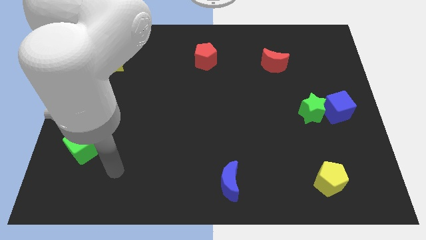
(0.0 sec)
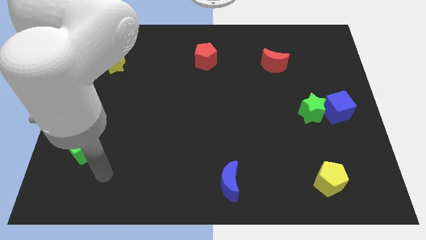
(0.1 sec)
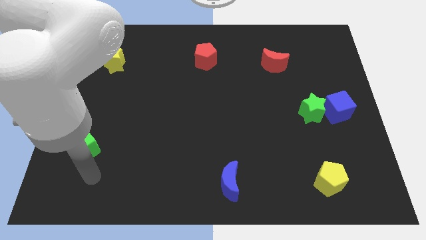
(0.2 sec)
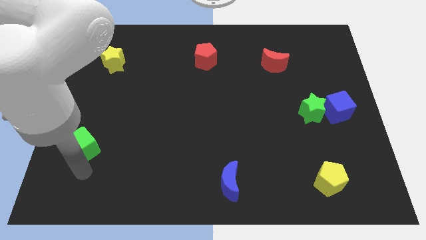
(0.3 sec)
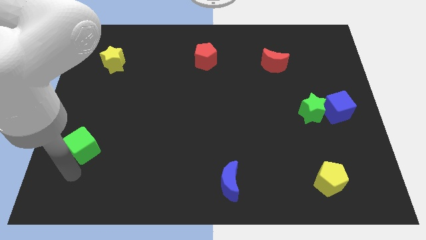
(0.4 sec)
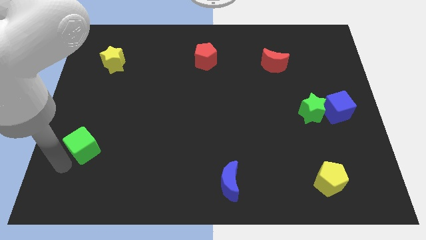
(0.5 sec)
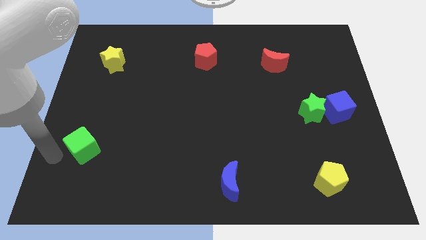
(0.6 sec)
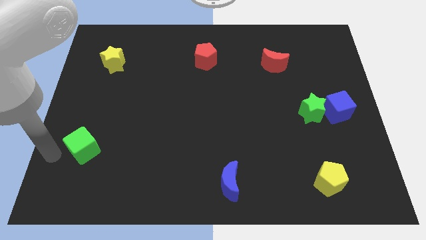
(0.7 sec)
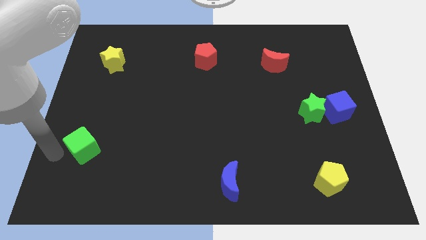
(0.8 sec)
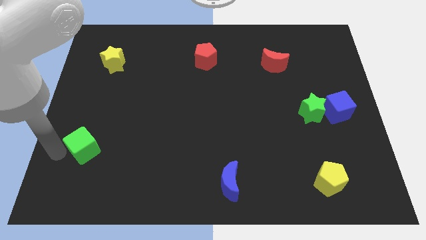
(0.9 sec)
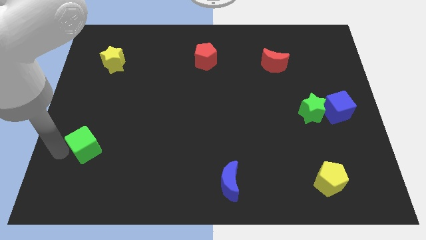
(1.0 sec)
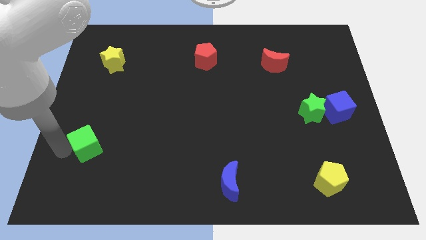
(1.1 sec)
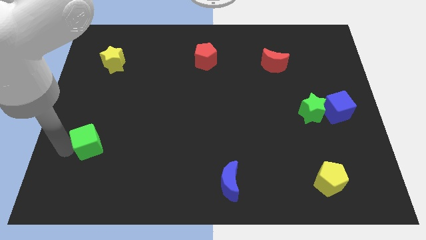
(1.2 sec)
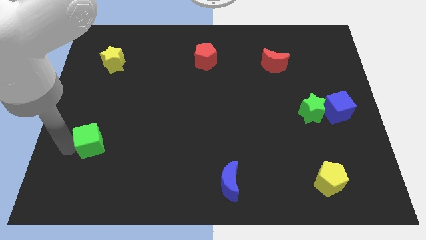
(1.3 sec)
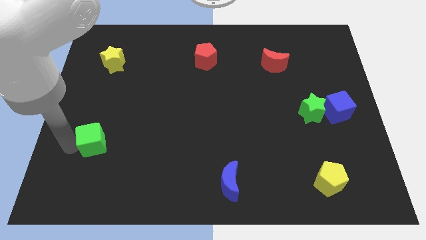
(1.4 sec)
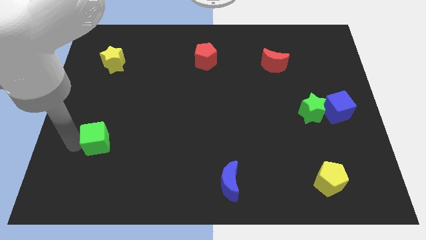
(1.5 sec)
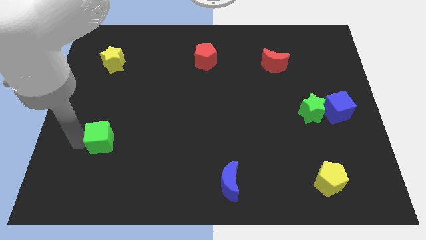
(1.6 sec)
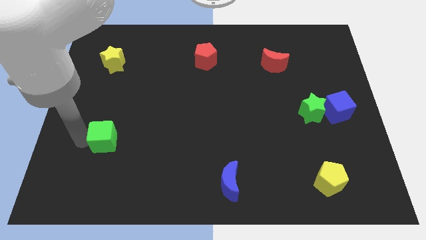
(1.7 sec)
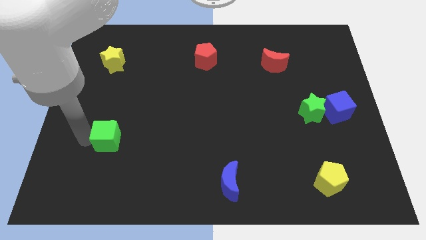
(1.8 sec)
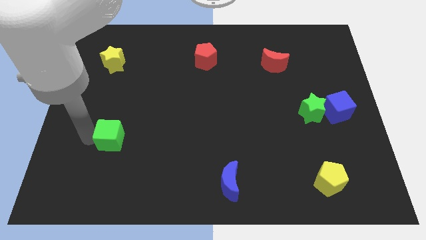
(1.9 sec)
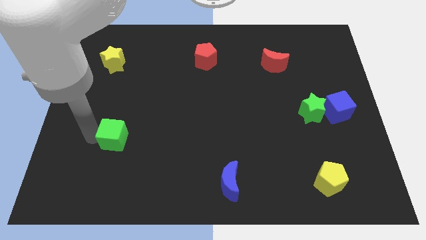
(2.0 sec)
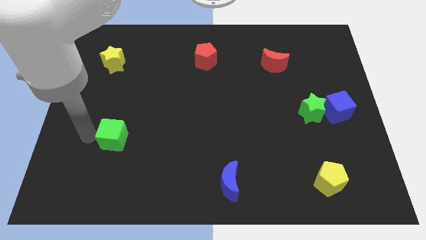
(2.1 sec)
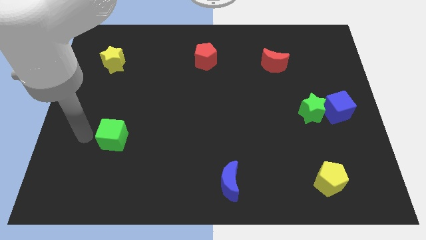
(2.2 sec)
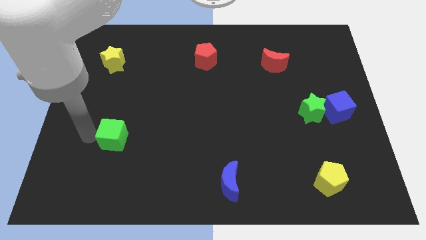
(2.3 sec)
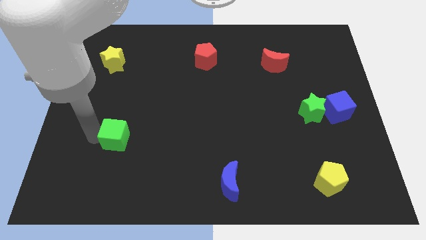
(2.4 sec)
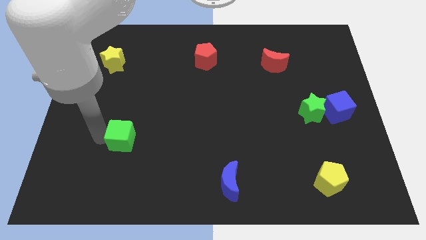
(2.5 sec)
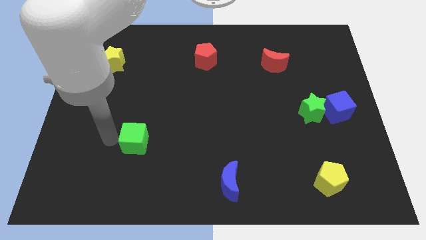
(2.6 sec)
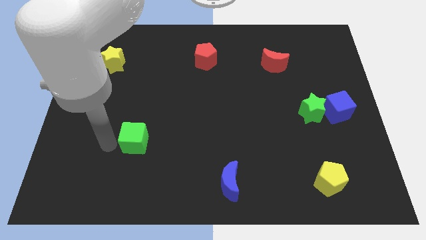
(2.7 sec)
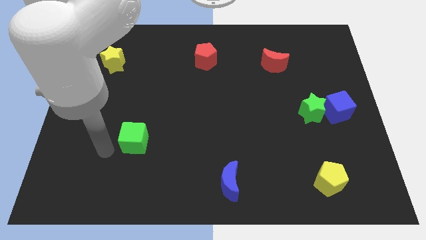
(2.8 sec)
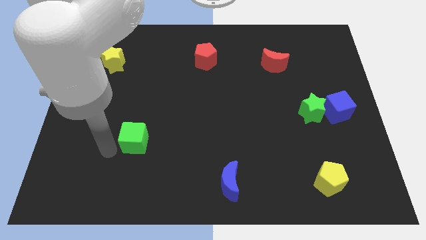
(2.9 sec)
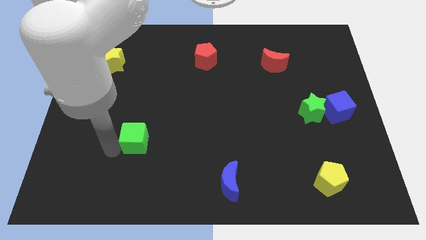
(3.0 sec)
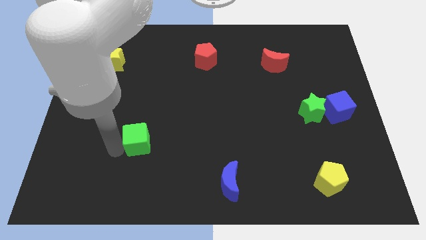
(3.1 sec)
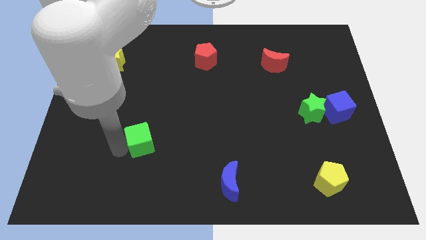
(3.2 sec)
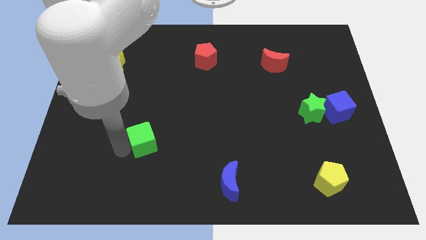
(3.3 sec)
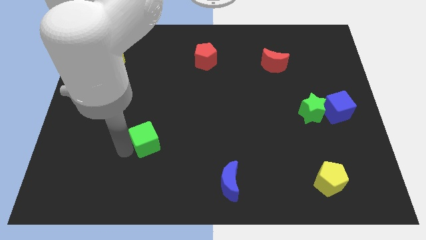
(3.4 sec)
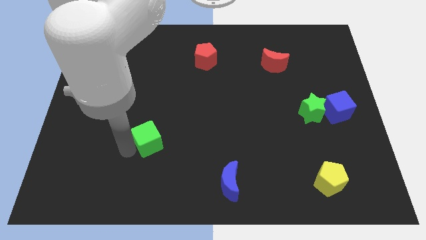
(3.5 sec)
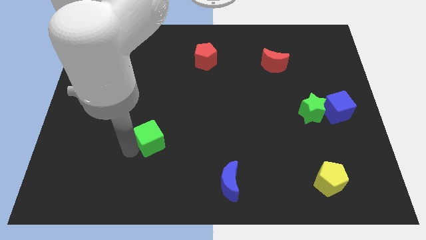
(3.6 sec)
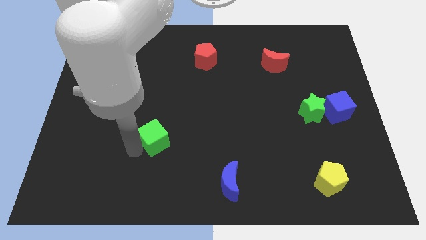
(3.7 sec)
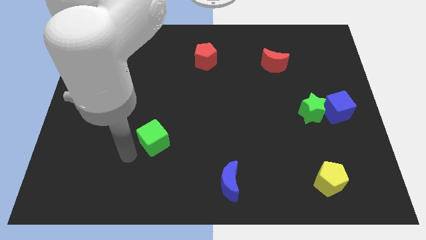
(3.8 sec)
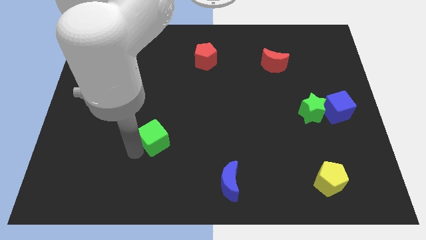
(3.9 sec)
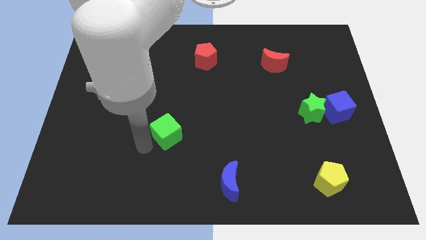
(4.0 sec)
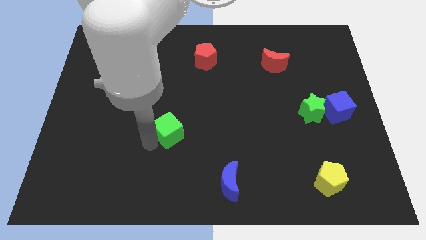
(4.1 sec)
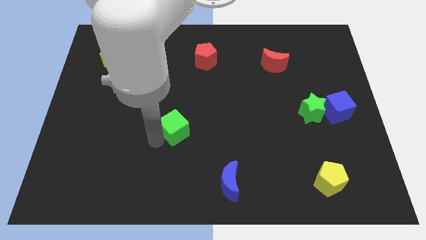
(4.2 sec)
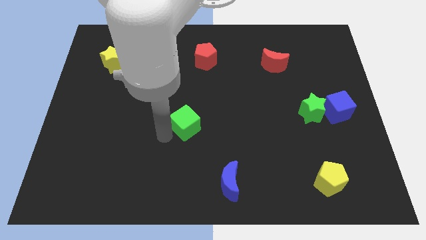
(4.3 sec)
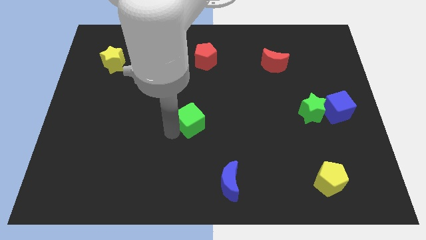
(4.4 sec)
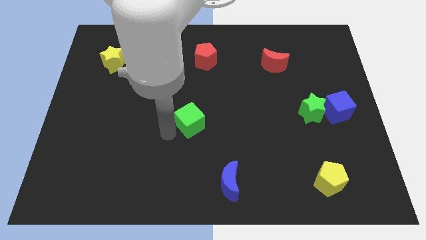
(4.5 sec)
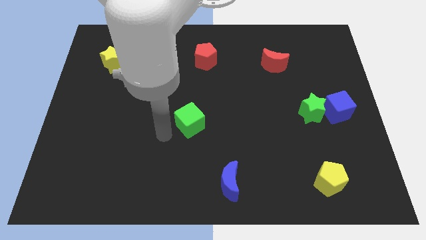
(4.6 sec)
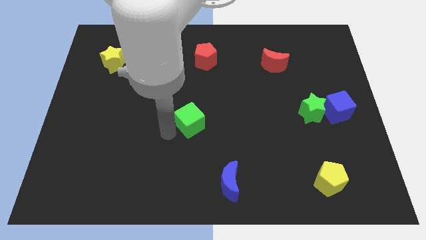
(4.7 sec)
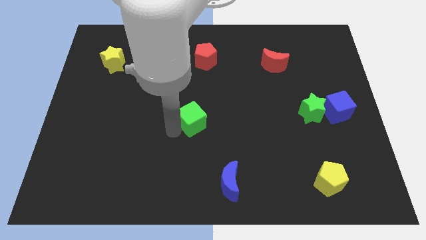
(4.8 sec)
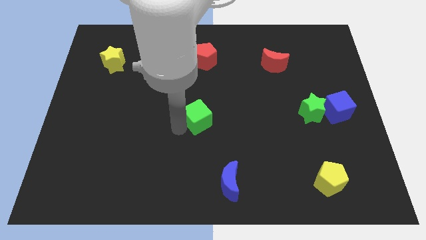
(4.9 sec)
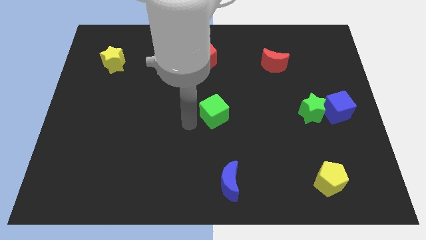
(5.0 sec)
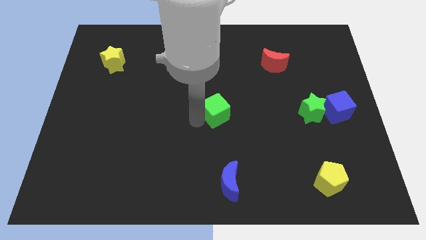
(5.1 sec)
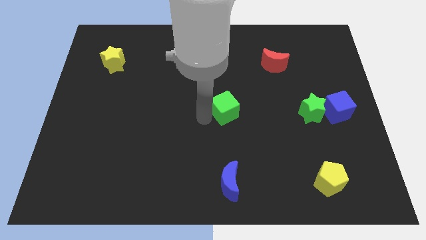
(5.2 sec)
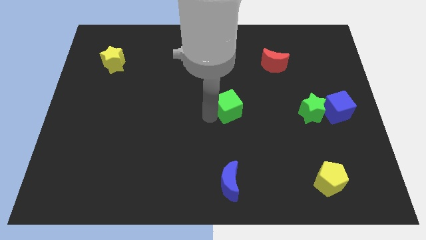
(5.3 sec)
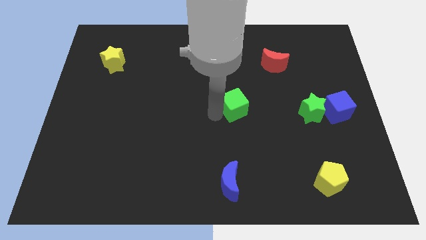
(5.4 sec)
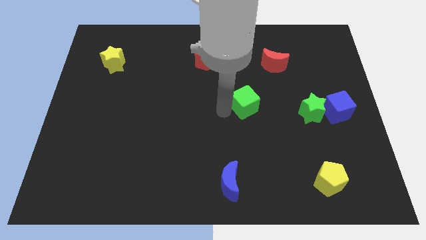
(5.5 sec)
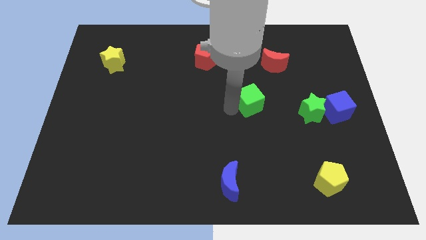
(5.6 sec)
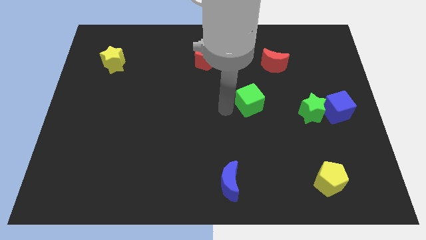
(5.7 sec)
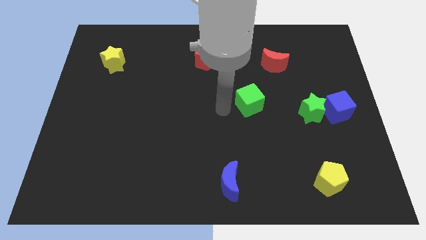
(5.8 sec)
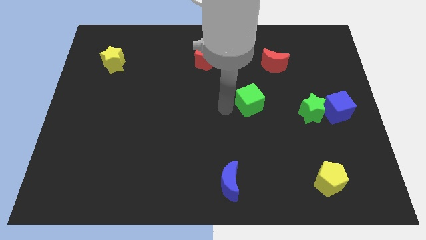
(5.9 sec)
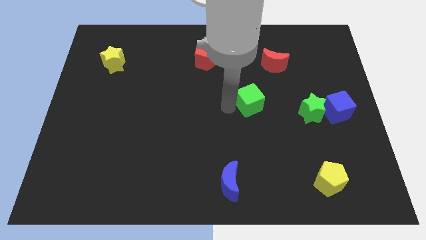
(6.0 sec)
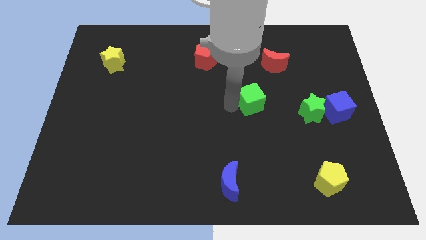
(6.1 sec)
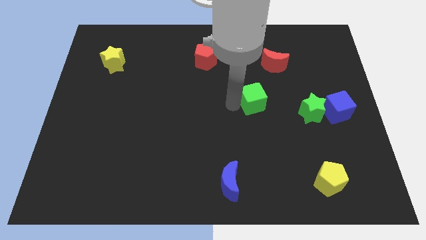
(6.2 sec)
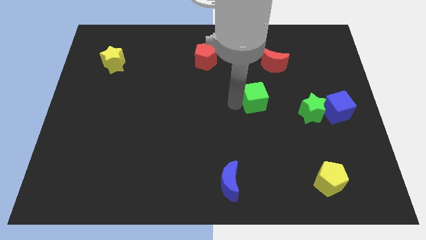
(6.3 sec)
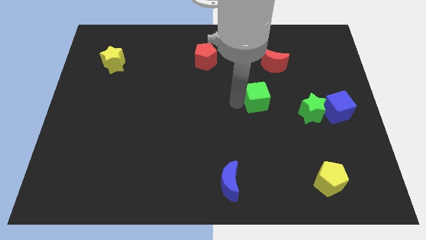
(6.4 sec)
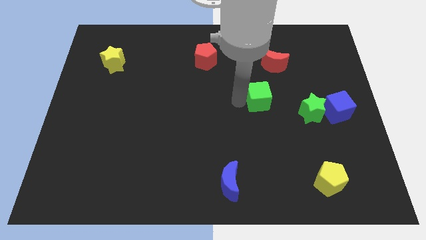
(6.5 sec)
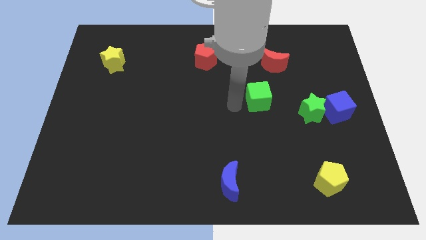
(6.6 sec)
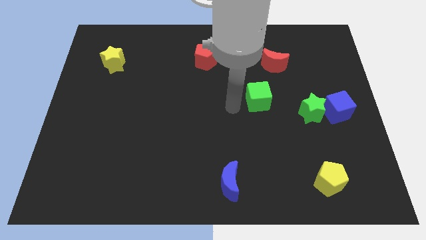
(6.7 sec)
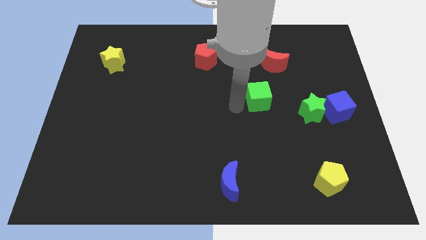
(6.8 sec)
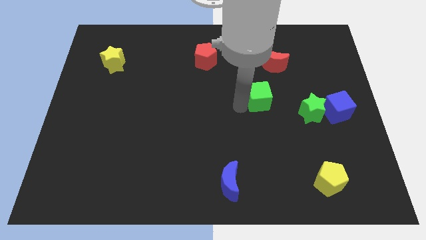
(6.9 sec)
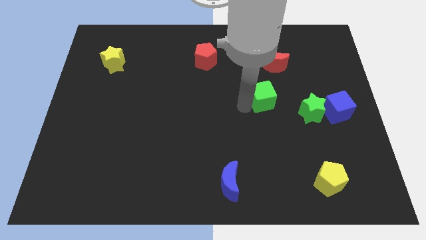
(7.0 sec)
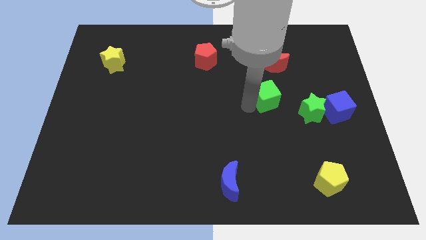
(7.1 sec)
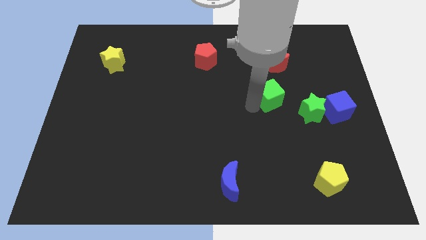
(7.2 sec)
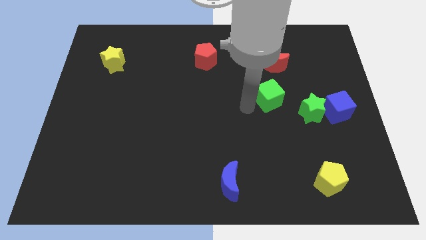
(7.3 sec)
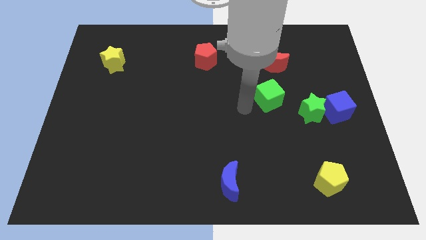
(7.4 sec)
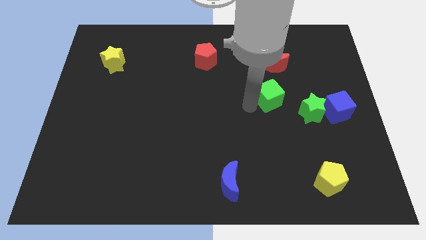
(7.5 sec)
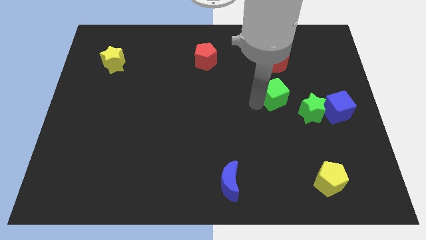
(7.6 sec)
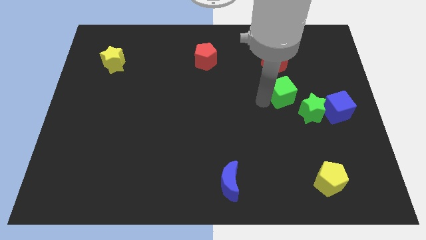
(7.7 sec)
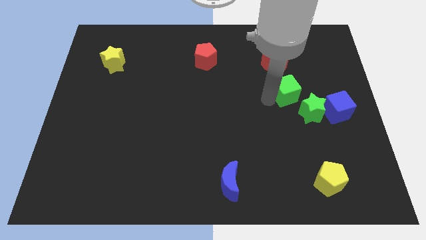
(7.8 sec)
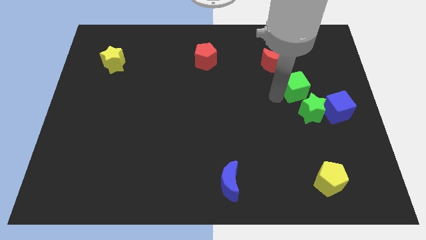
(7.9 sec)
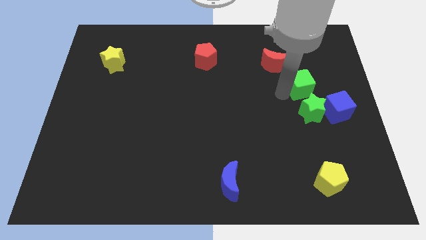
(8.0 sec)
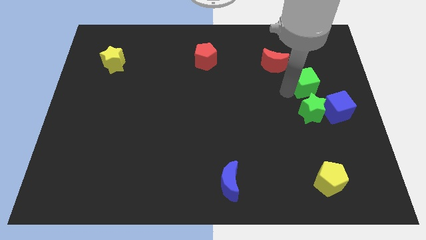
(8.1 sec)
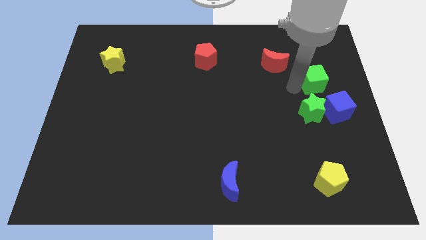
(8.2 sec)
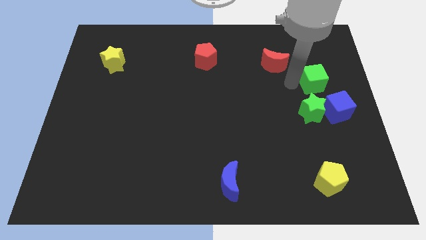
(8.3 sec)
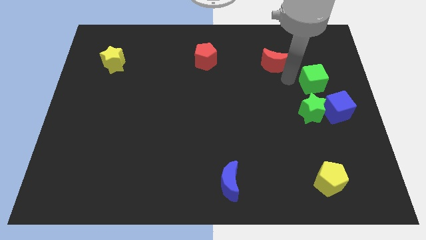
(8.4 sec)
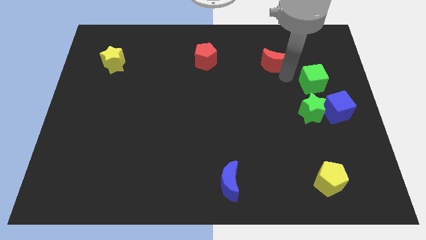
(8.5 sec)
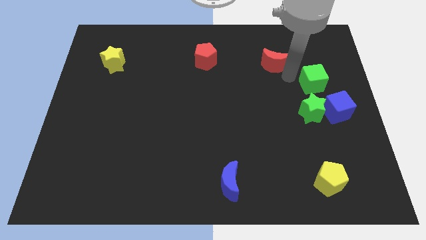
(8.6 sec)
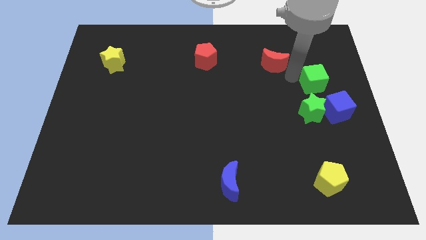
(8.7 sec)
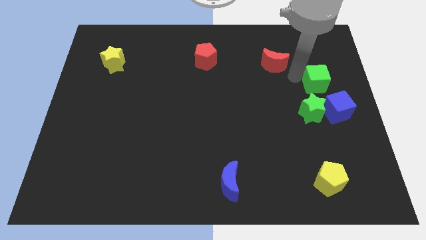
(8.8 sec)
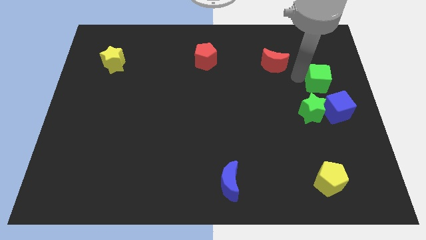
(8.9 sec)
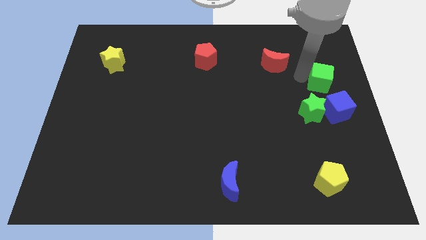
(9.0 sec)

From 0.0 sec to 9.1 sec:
slide the green cube to the right side
